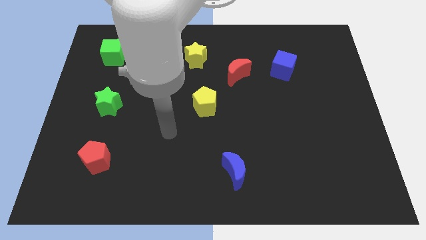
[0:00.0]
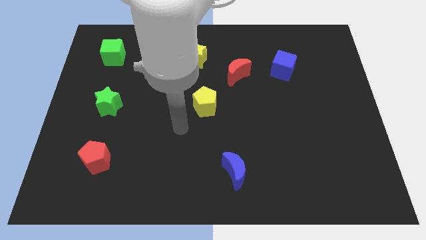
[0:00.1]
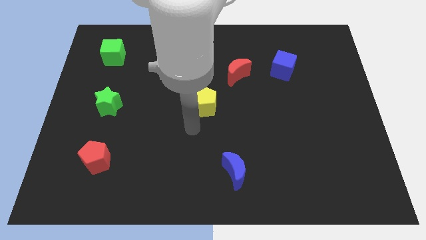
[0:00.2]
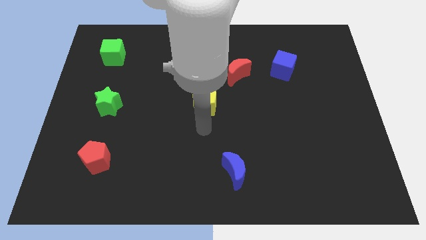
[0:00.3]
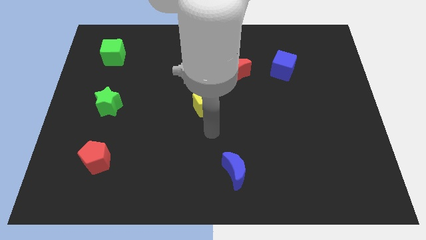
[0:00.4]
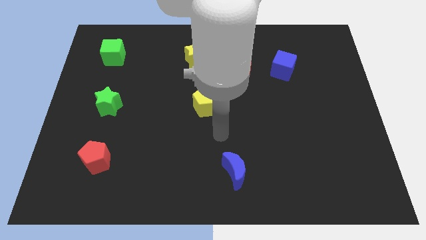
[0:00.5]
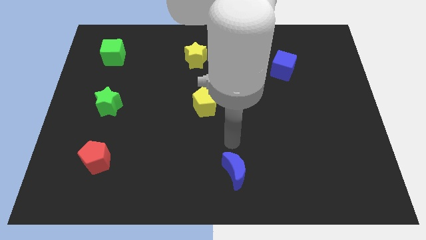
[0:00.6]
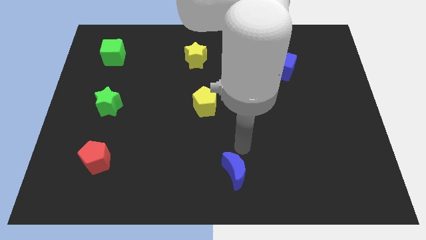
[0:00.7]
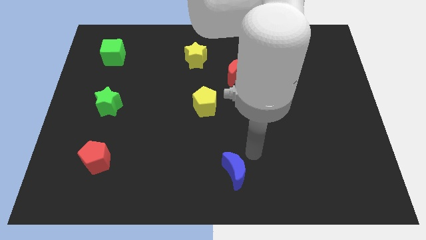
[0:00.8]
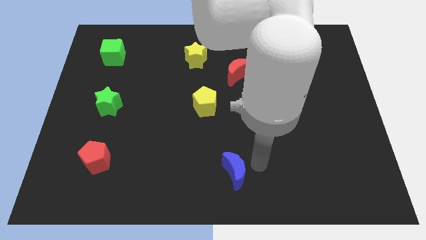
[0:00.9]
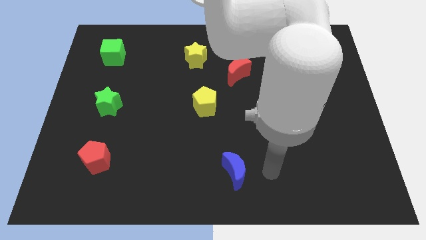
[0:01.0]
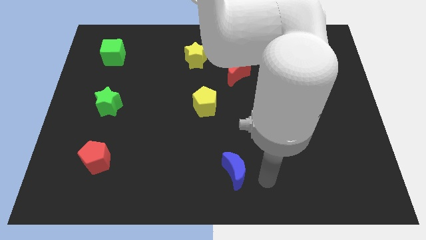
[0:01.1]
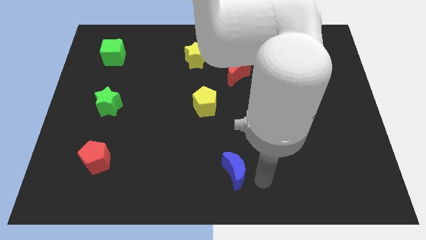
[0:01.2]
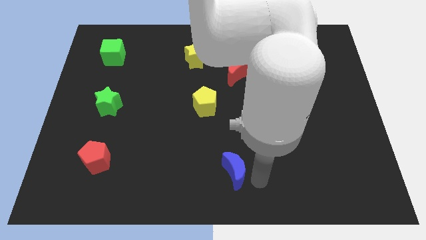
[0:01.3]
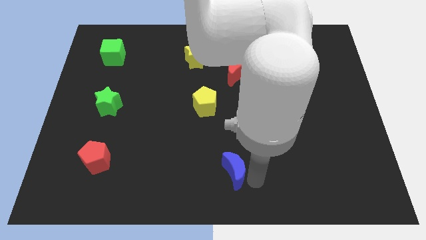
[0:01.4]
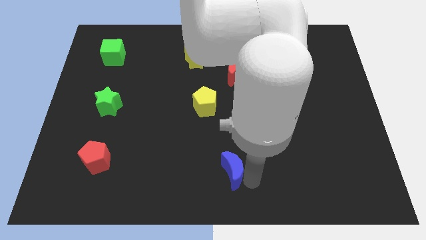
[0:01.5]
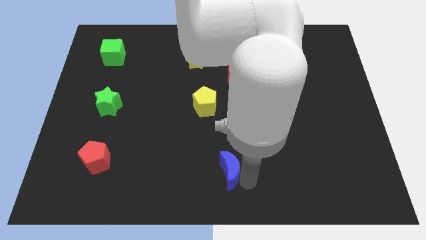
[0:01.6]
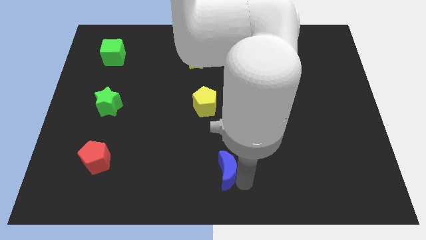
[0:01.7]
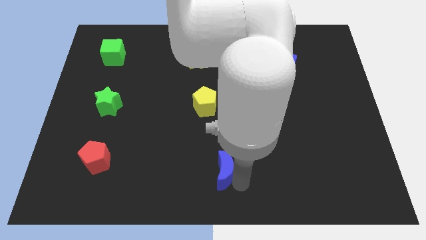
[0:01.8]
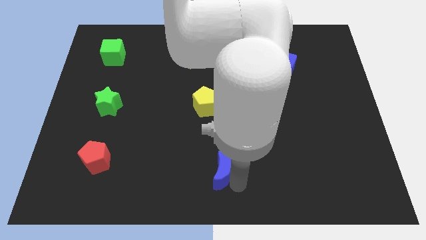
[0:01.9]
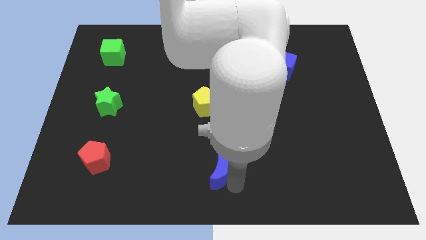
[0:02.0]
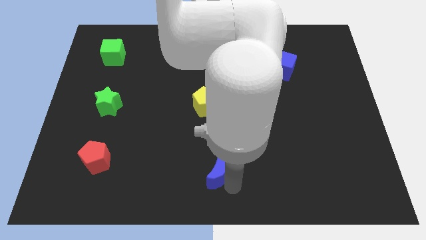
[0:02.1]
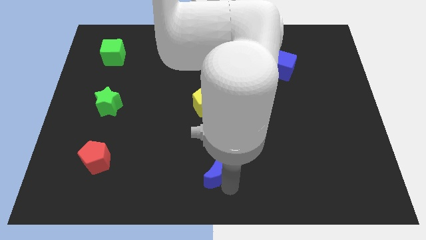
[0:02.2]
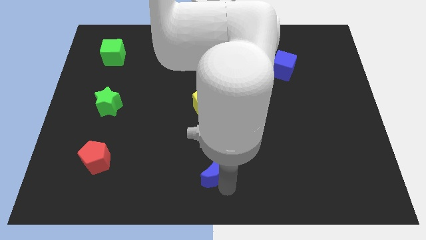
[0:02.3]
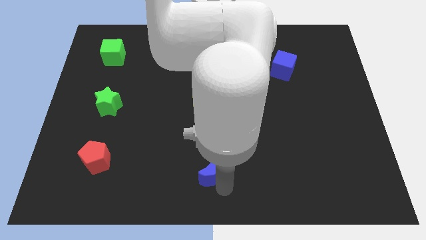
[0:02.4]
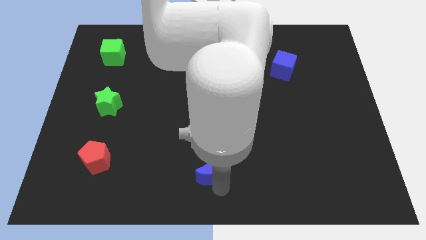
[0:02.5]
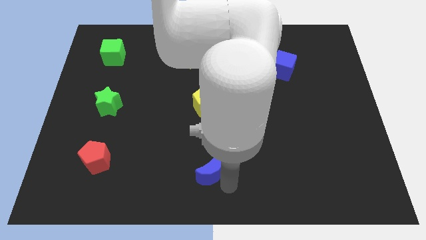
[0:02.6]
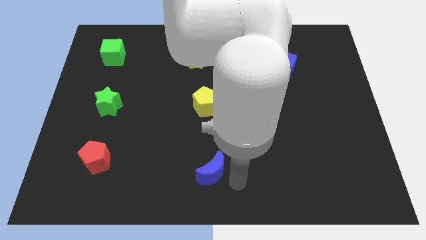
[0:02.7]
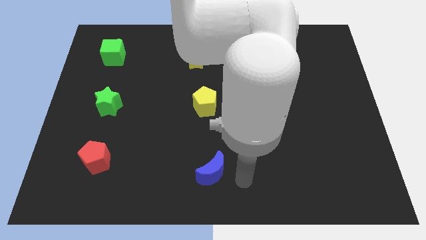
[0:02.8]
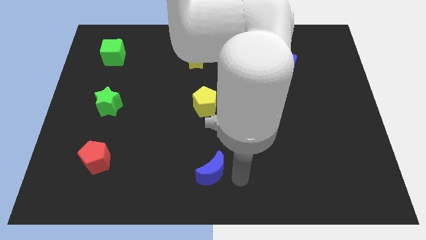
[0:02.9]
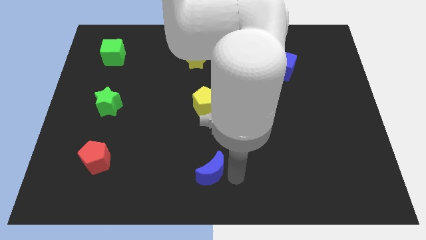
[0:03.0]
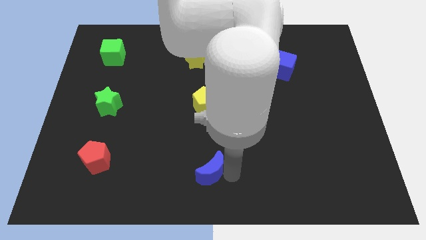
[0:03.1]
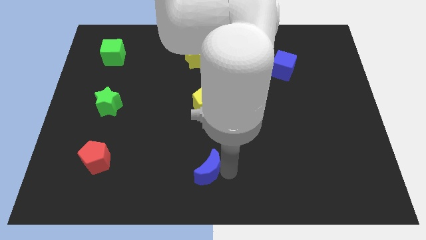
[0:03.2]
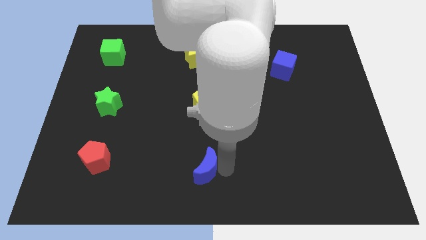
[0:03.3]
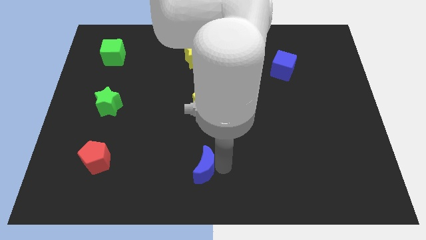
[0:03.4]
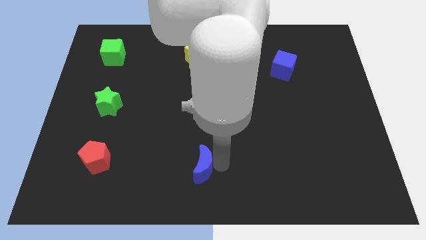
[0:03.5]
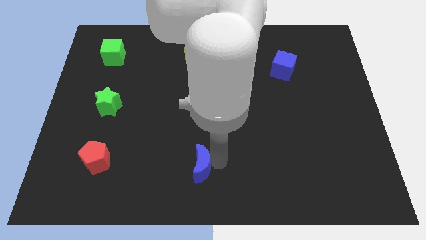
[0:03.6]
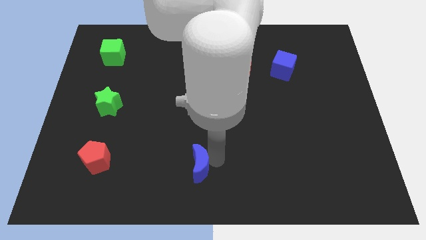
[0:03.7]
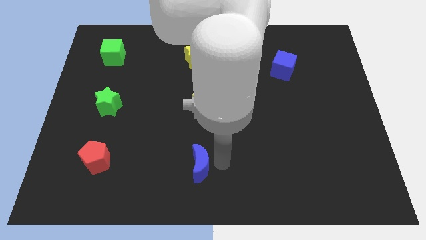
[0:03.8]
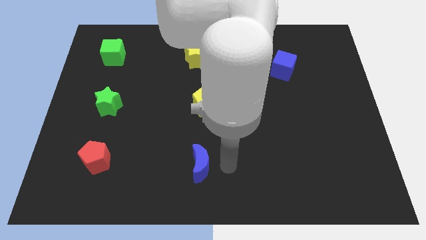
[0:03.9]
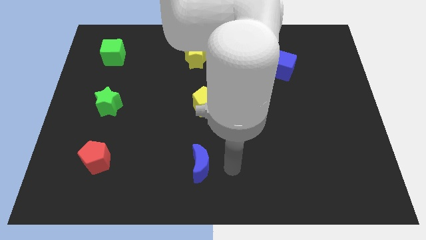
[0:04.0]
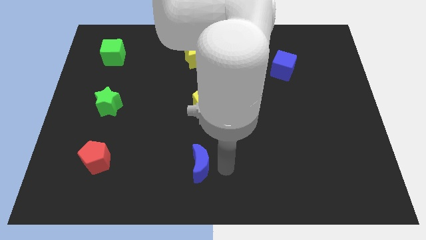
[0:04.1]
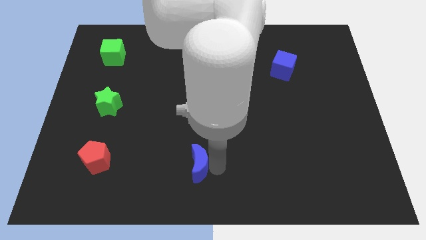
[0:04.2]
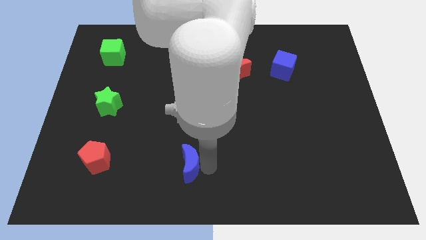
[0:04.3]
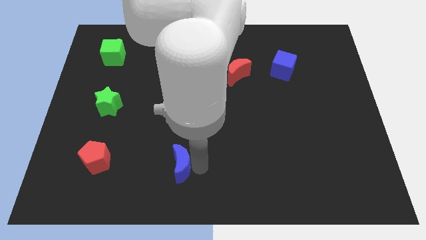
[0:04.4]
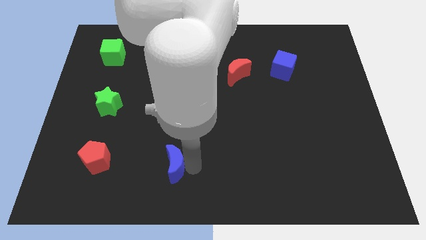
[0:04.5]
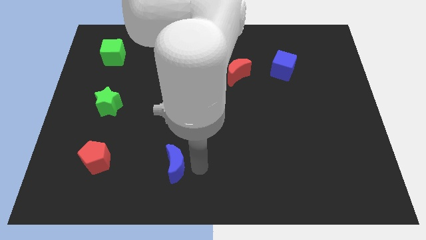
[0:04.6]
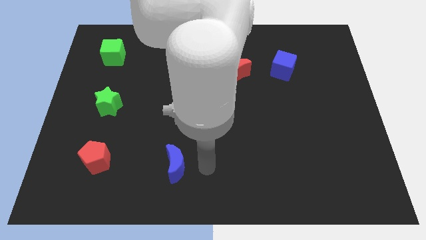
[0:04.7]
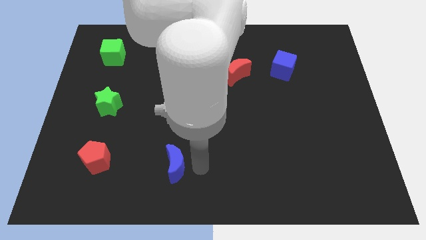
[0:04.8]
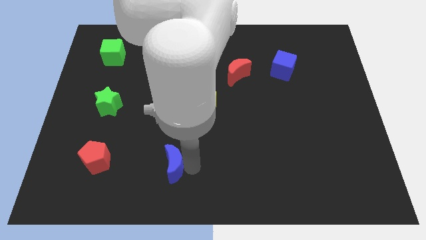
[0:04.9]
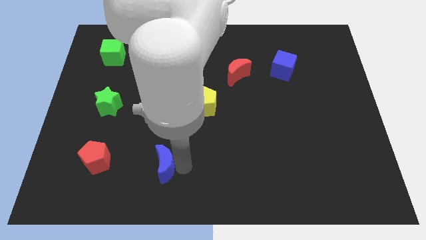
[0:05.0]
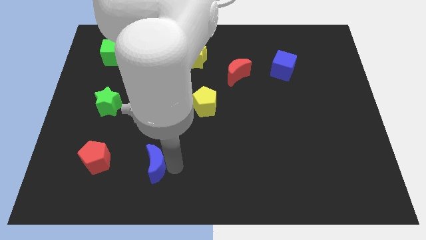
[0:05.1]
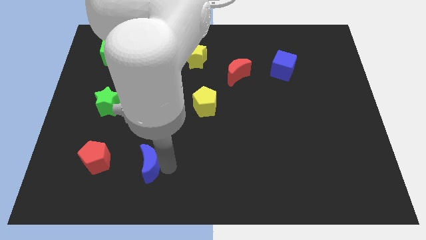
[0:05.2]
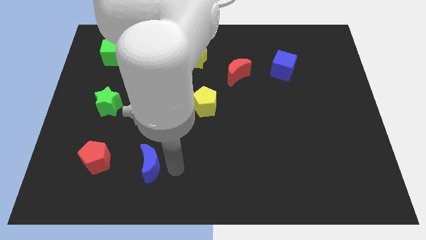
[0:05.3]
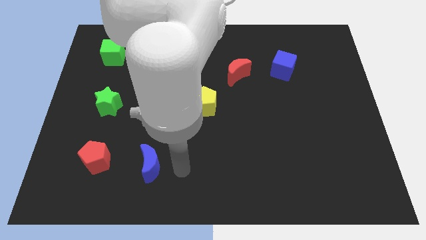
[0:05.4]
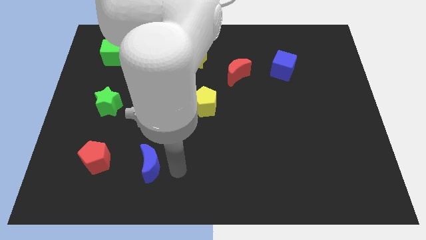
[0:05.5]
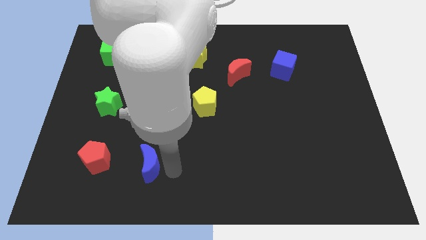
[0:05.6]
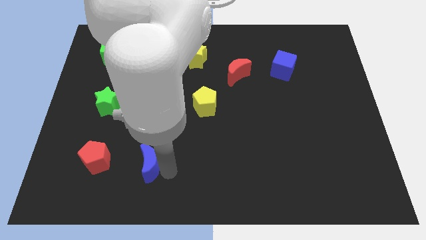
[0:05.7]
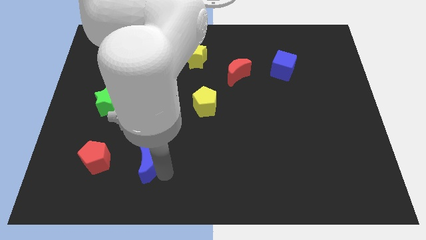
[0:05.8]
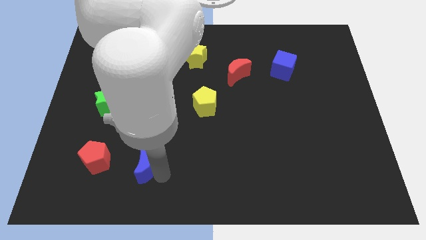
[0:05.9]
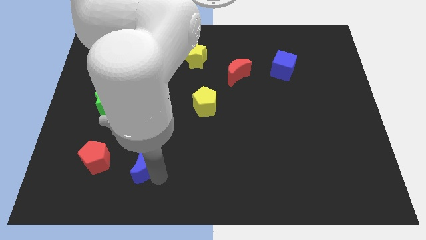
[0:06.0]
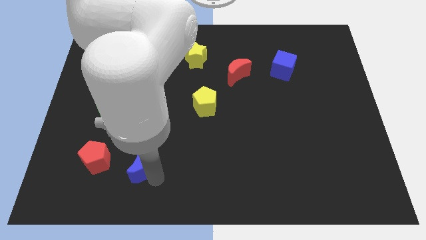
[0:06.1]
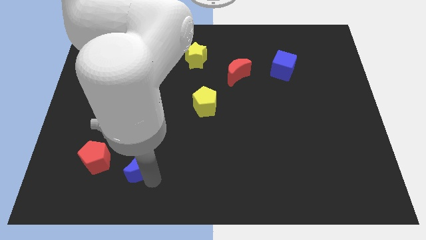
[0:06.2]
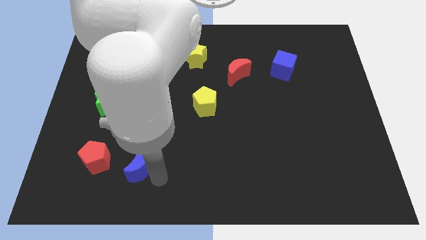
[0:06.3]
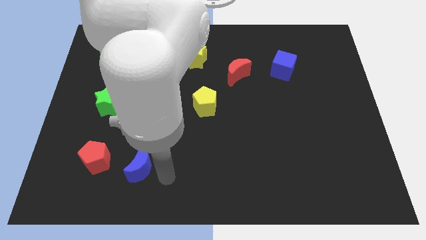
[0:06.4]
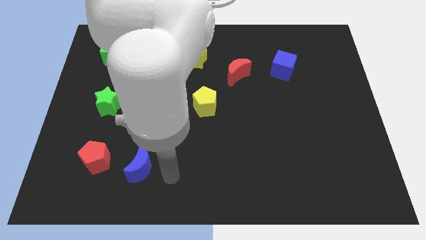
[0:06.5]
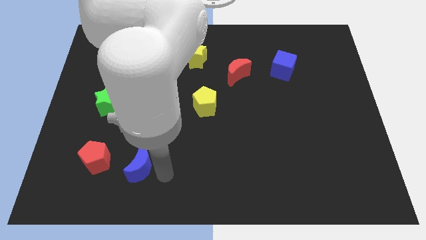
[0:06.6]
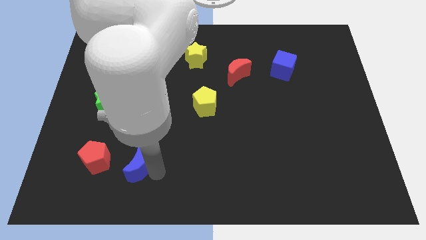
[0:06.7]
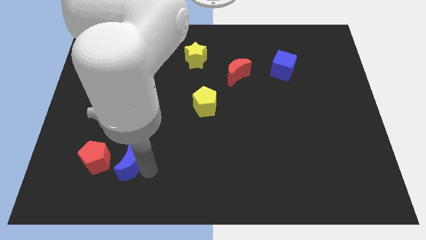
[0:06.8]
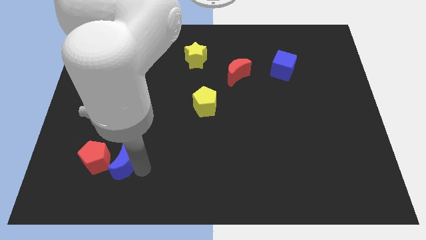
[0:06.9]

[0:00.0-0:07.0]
slide the blue moon close to the red pentagon

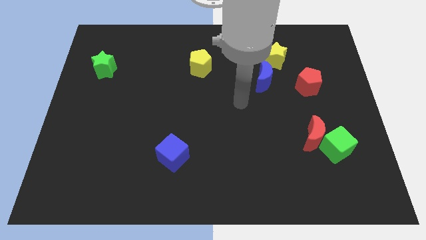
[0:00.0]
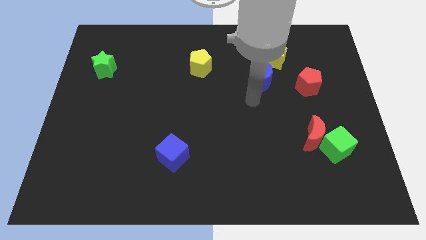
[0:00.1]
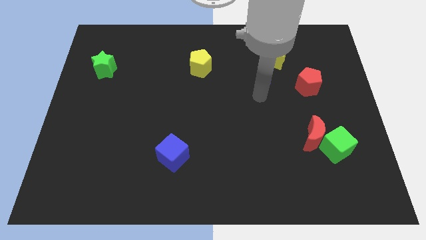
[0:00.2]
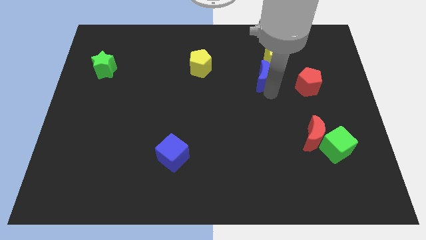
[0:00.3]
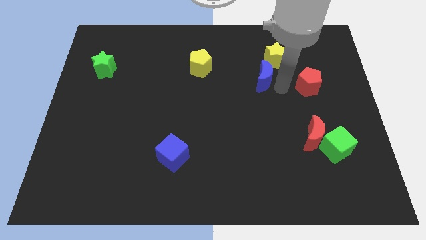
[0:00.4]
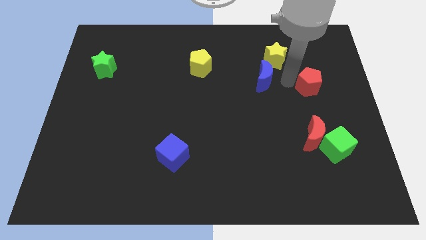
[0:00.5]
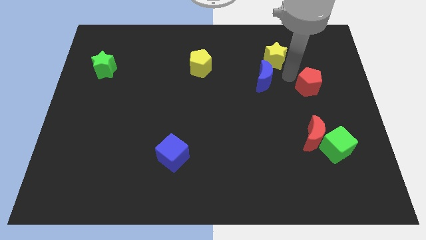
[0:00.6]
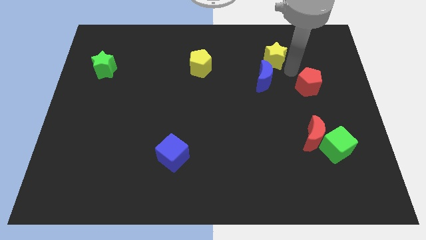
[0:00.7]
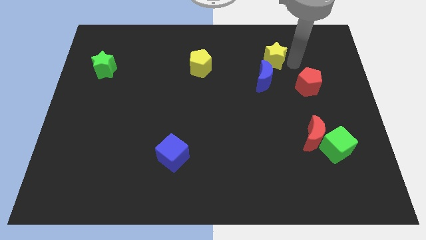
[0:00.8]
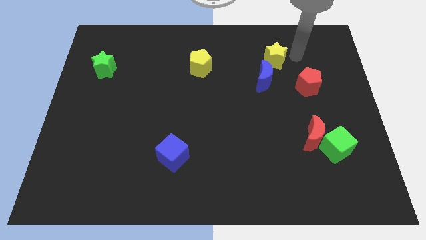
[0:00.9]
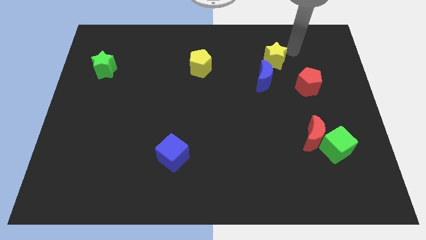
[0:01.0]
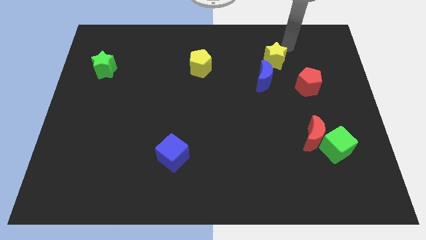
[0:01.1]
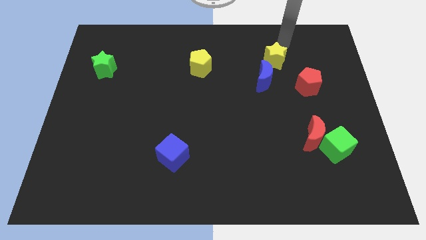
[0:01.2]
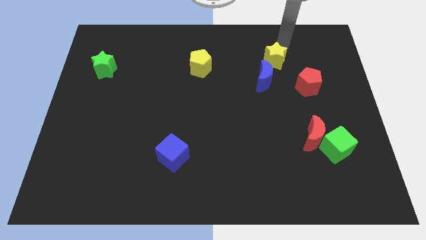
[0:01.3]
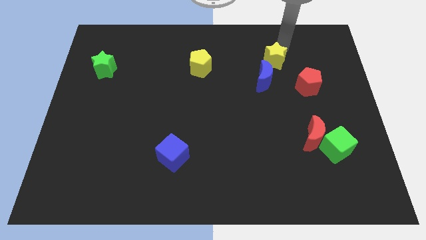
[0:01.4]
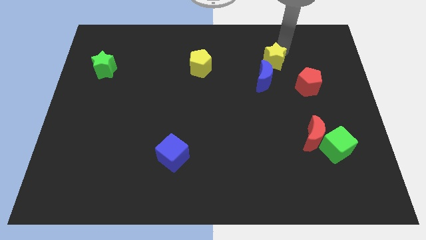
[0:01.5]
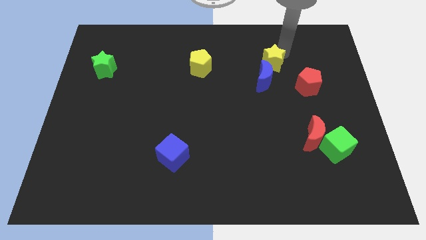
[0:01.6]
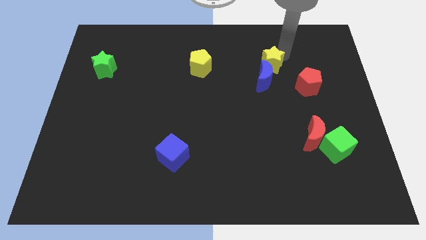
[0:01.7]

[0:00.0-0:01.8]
move the yellow star close to the blue moon
